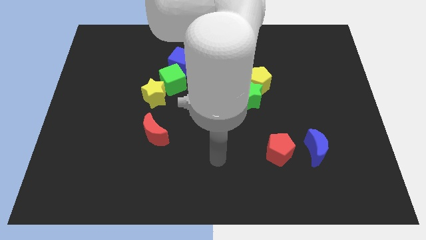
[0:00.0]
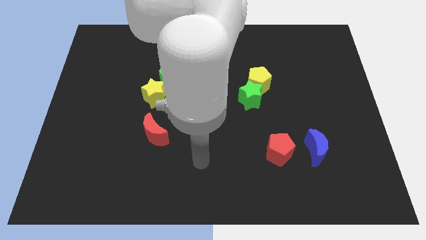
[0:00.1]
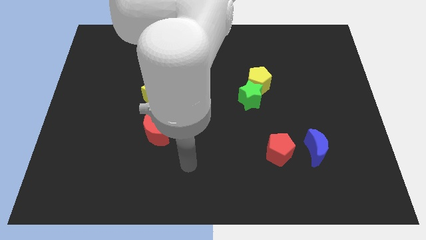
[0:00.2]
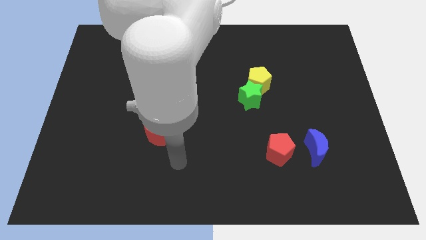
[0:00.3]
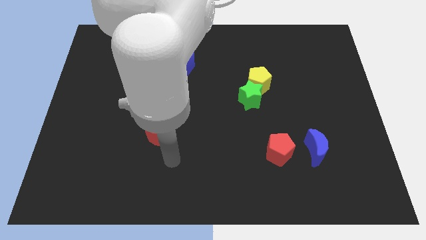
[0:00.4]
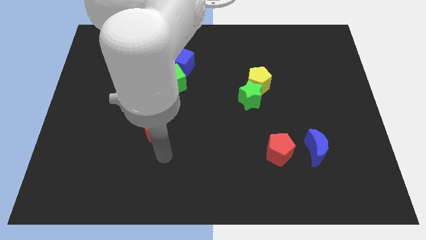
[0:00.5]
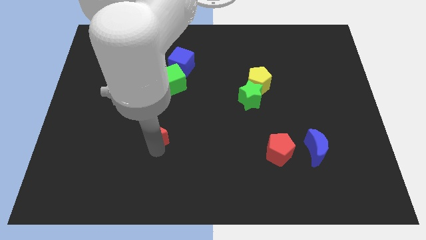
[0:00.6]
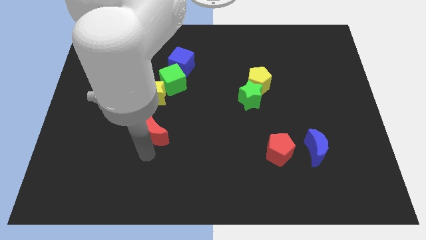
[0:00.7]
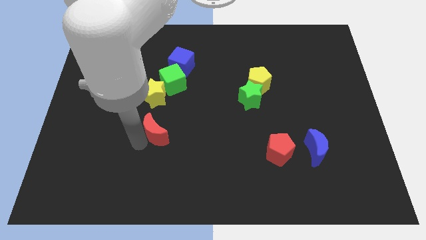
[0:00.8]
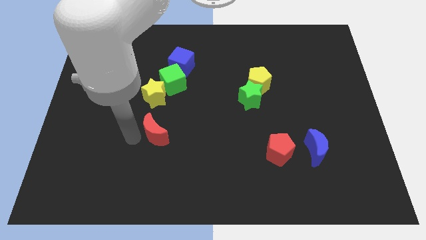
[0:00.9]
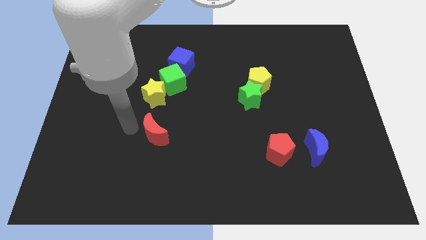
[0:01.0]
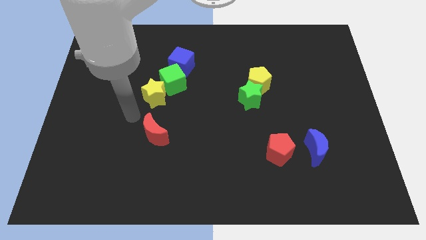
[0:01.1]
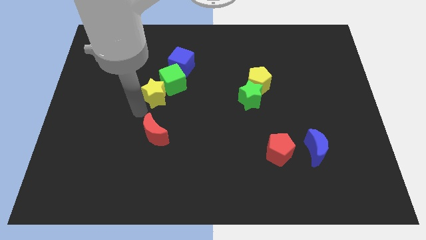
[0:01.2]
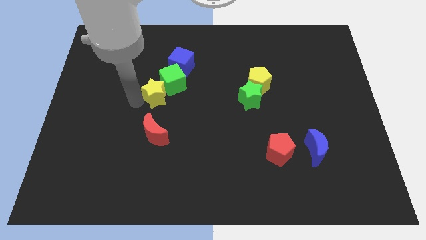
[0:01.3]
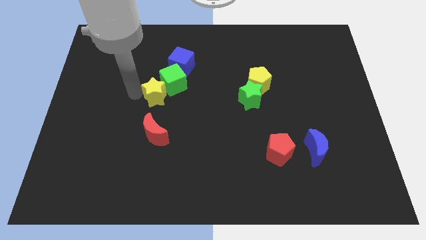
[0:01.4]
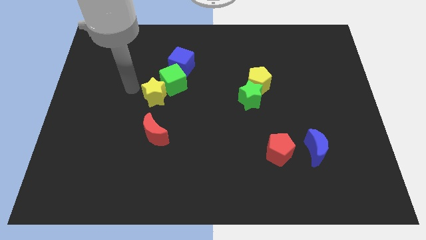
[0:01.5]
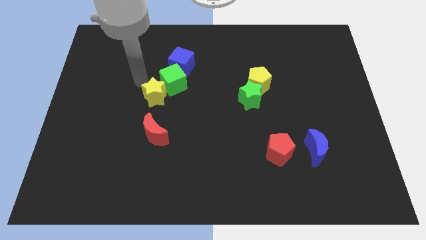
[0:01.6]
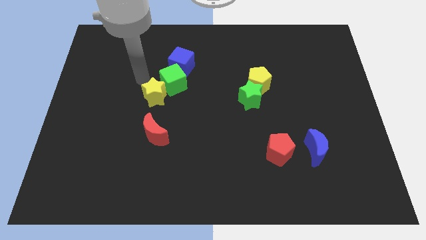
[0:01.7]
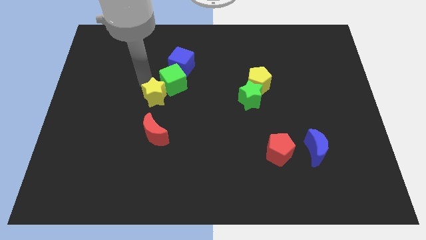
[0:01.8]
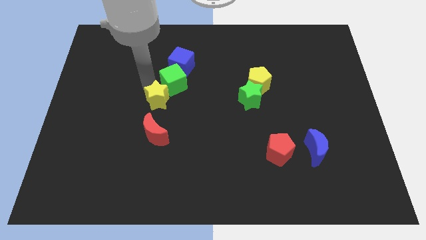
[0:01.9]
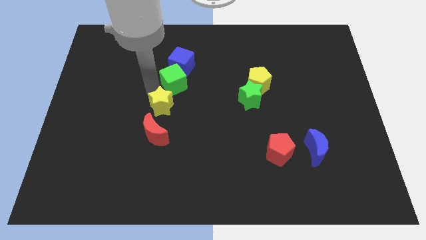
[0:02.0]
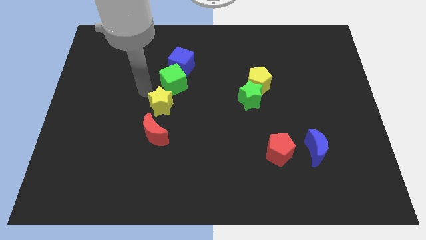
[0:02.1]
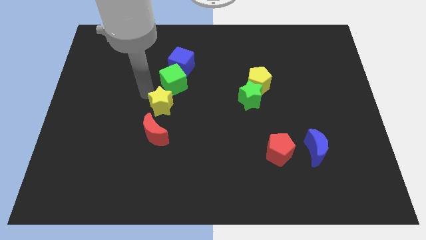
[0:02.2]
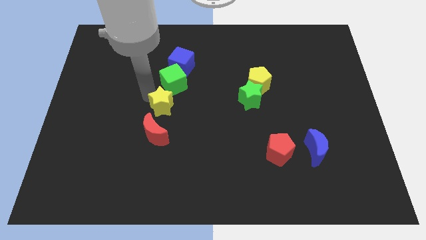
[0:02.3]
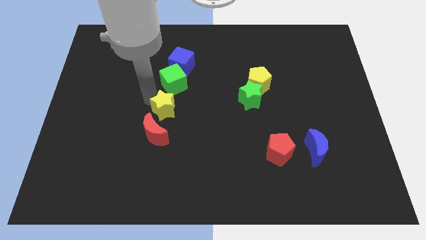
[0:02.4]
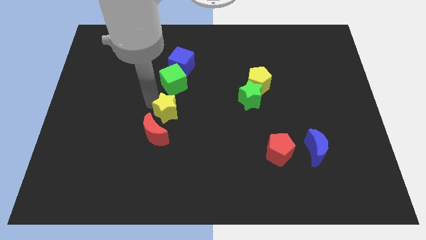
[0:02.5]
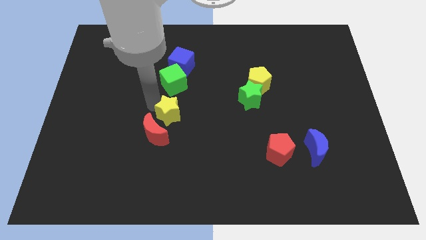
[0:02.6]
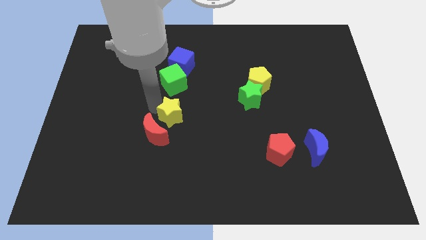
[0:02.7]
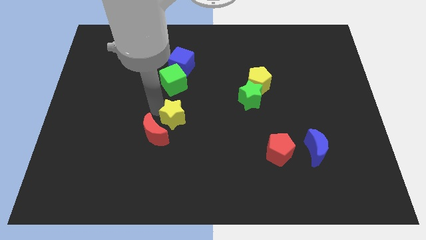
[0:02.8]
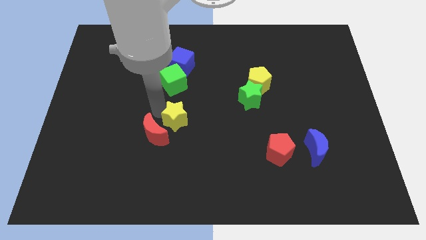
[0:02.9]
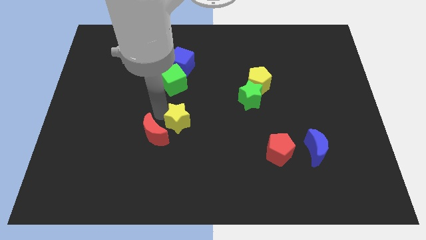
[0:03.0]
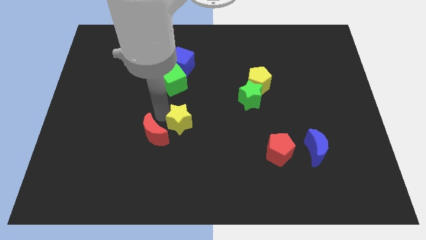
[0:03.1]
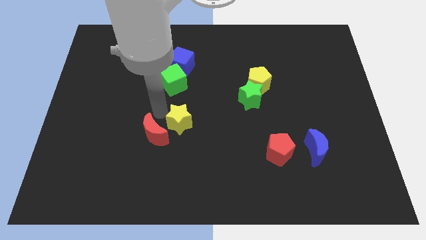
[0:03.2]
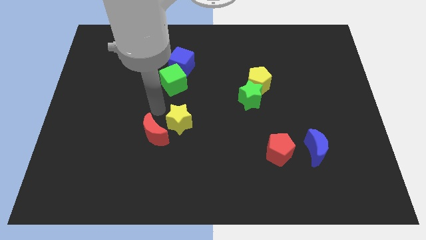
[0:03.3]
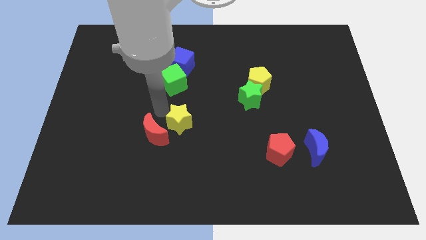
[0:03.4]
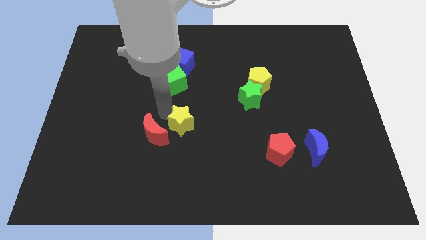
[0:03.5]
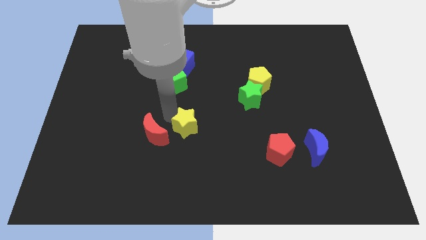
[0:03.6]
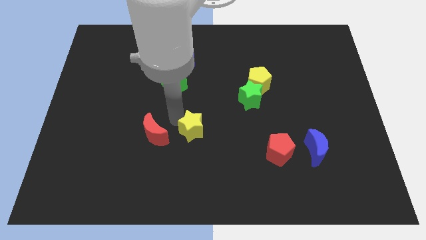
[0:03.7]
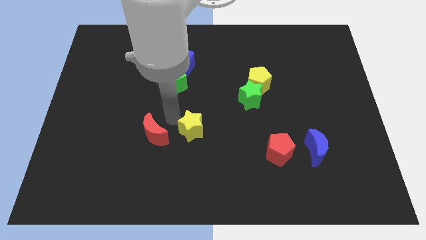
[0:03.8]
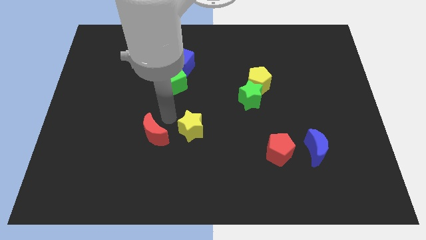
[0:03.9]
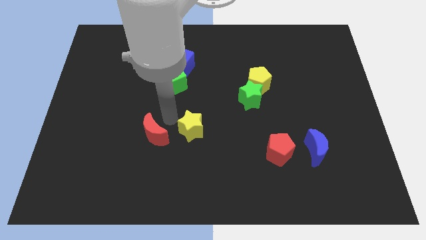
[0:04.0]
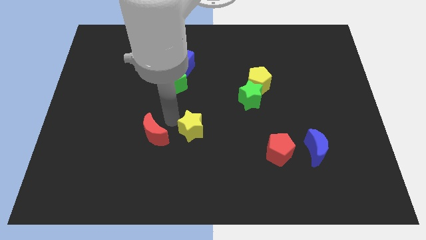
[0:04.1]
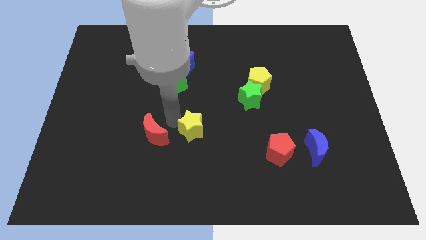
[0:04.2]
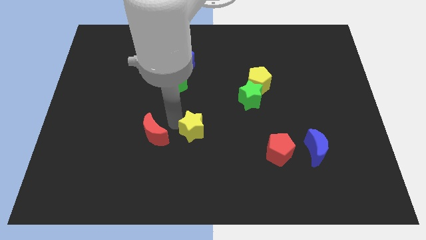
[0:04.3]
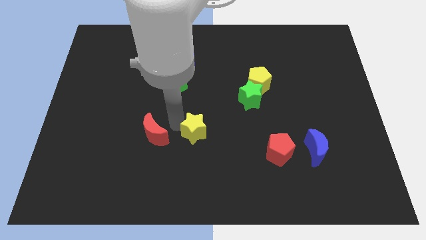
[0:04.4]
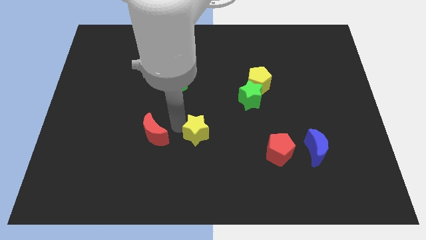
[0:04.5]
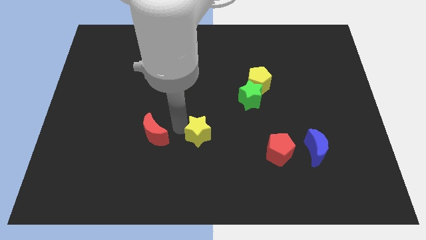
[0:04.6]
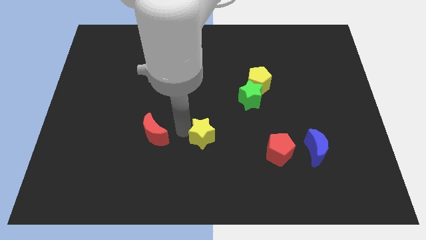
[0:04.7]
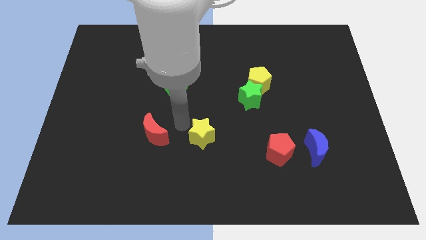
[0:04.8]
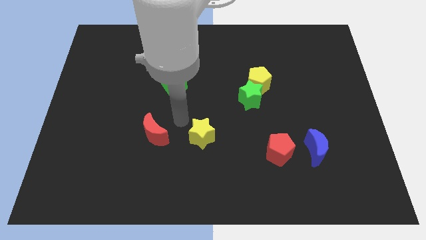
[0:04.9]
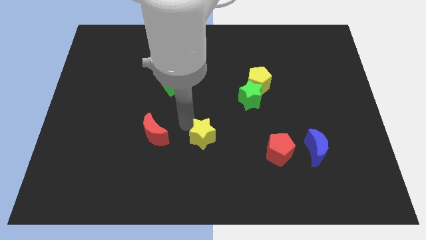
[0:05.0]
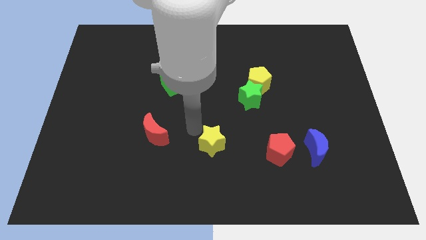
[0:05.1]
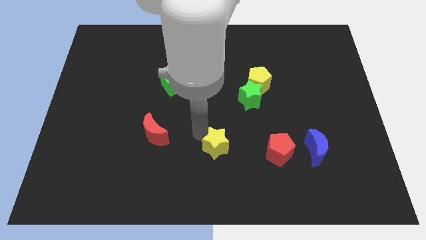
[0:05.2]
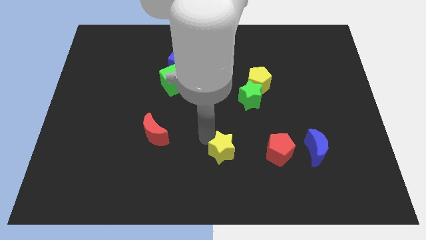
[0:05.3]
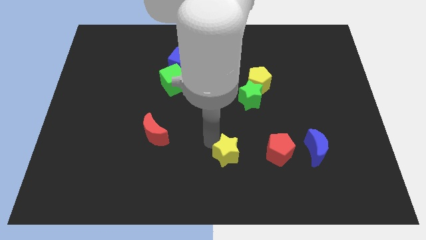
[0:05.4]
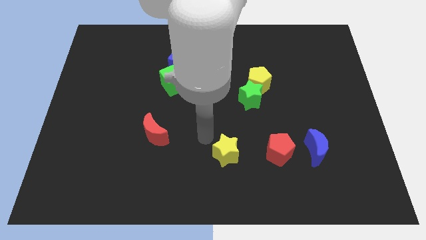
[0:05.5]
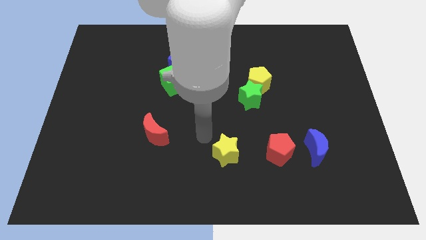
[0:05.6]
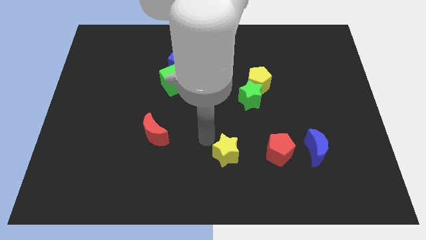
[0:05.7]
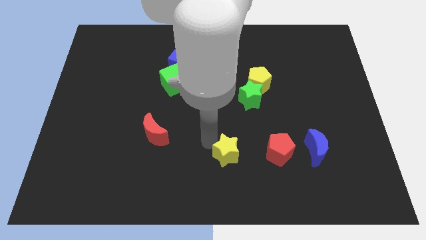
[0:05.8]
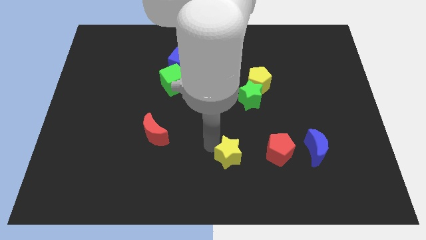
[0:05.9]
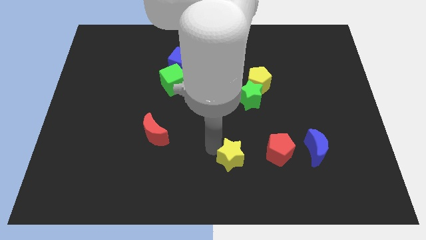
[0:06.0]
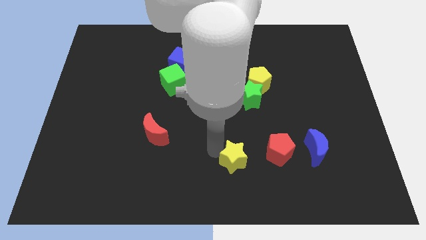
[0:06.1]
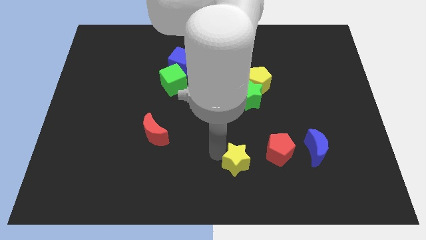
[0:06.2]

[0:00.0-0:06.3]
put the yellow star to the bottom left of the red pentagon

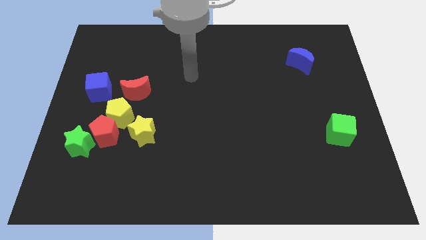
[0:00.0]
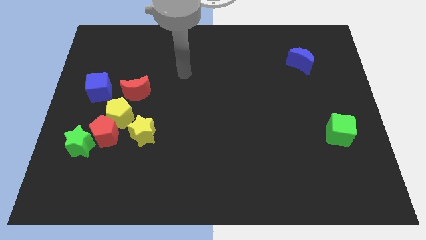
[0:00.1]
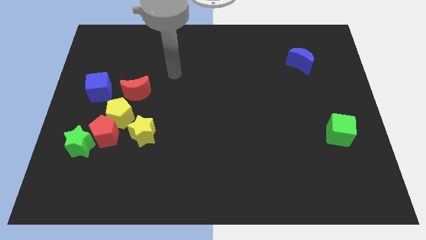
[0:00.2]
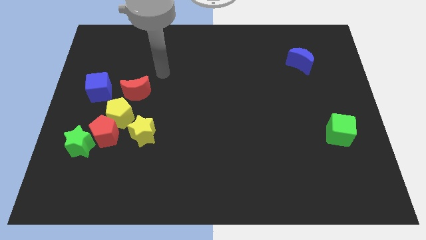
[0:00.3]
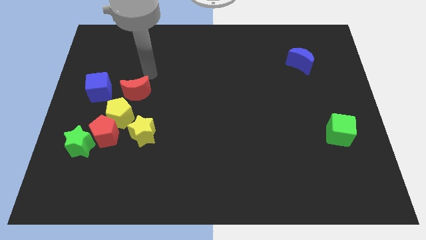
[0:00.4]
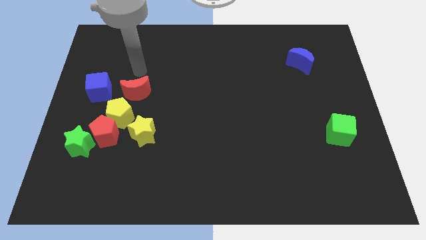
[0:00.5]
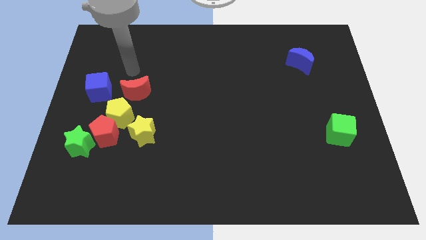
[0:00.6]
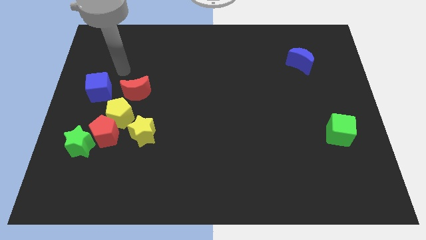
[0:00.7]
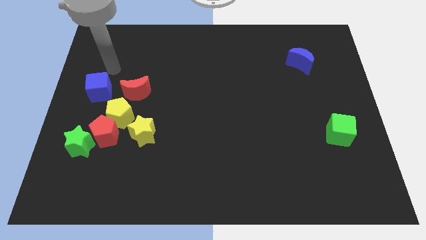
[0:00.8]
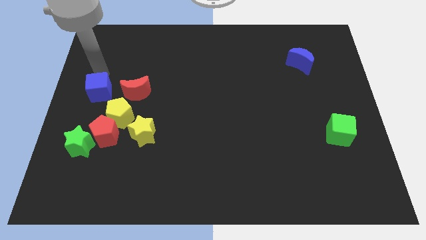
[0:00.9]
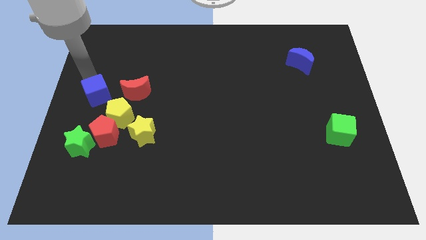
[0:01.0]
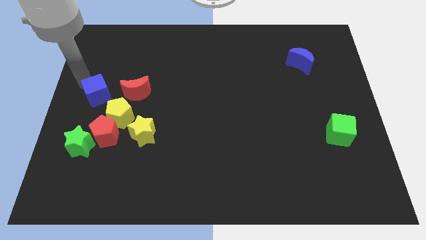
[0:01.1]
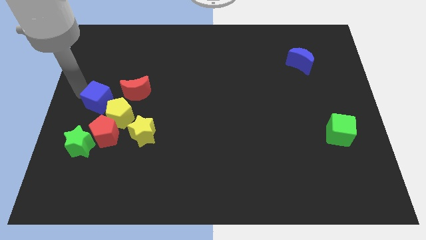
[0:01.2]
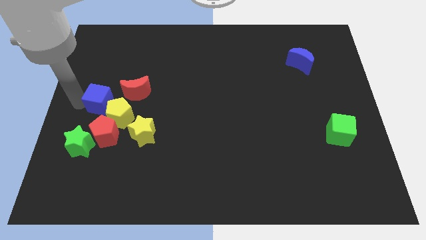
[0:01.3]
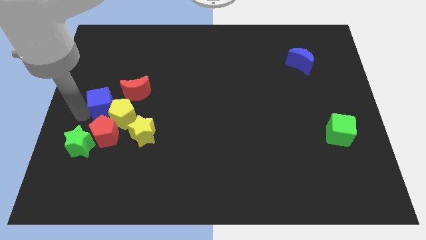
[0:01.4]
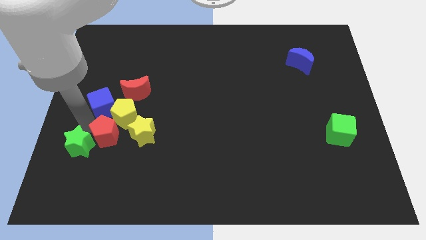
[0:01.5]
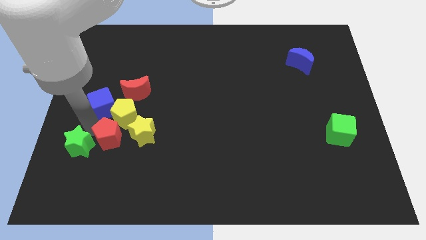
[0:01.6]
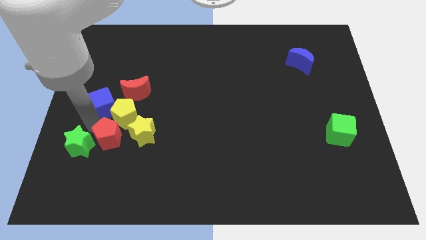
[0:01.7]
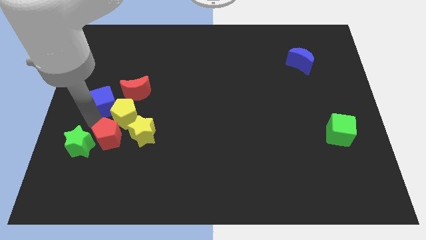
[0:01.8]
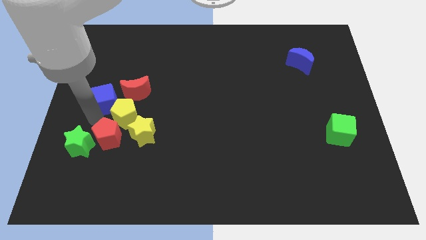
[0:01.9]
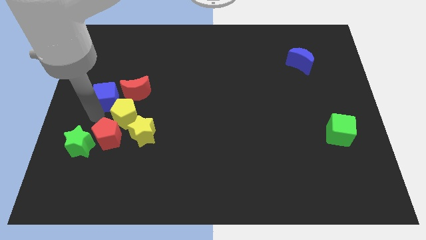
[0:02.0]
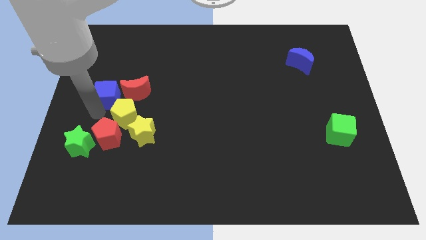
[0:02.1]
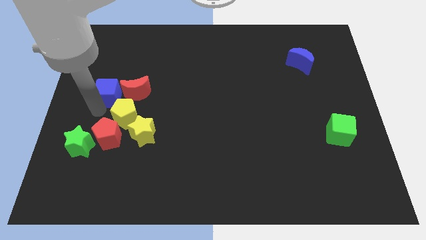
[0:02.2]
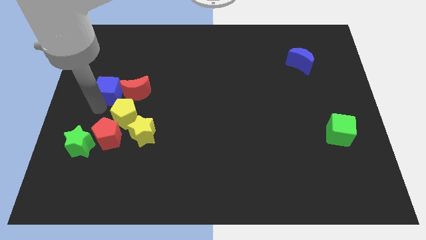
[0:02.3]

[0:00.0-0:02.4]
move the blue cube diagonally up and to the left of the red moon
